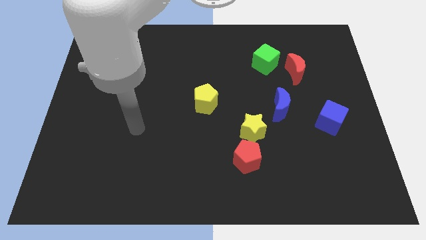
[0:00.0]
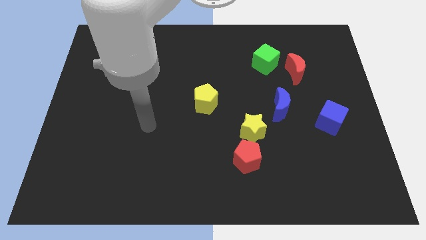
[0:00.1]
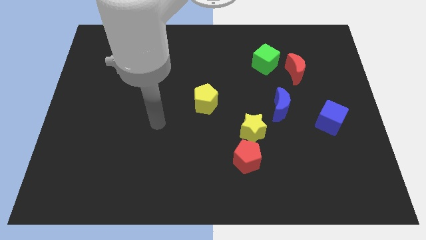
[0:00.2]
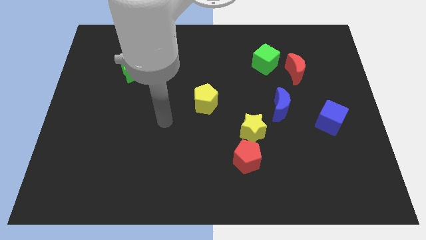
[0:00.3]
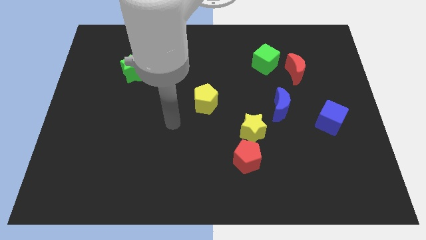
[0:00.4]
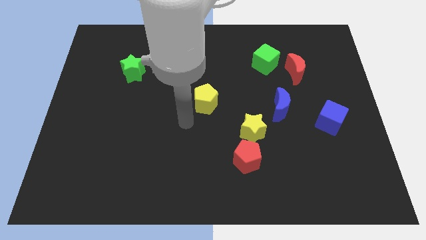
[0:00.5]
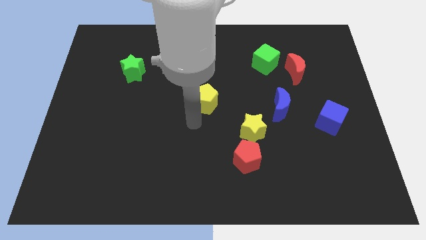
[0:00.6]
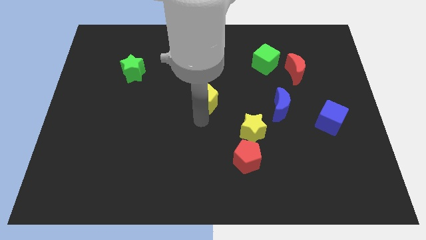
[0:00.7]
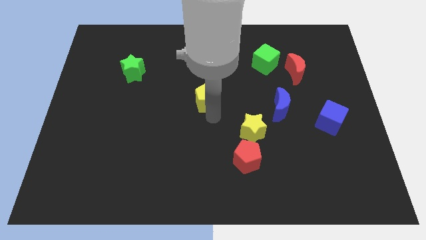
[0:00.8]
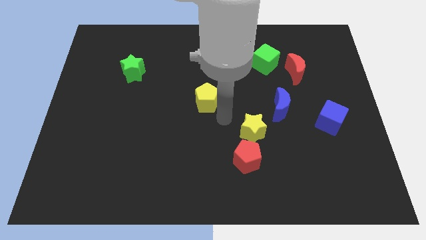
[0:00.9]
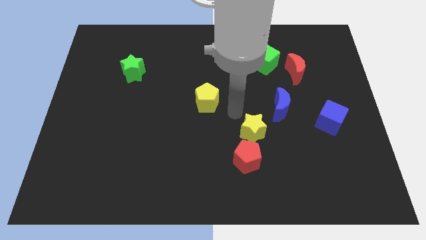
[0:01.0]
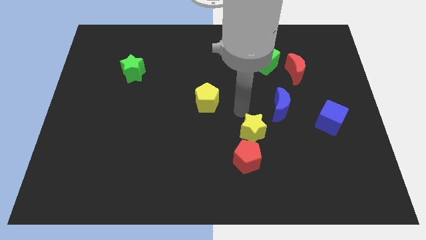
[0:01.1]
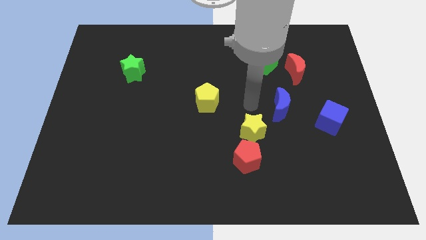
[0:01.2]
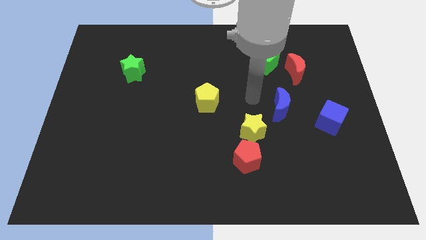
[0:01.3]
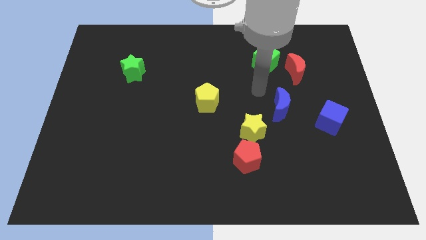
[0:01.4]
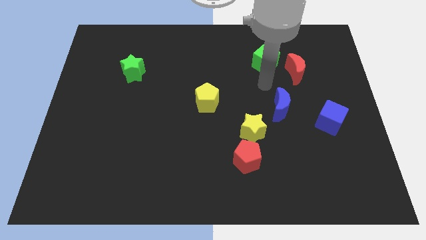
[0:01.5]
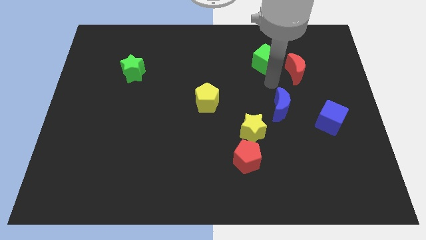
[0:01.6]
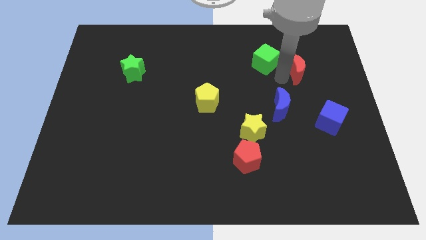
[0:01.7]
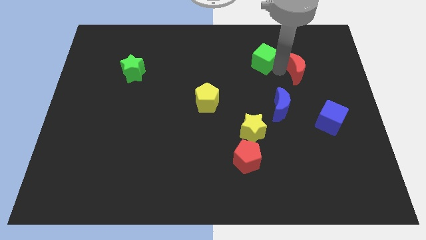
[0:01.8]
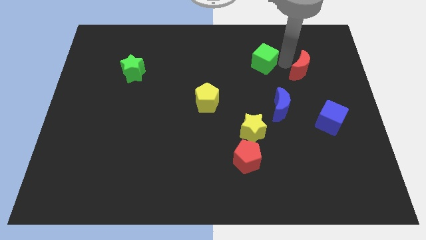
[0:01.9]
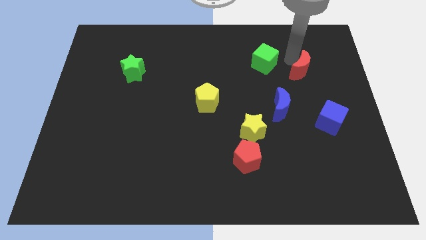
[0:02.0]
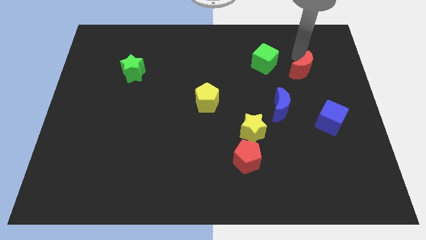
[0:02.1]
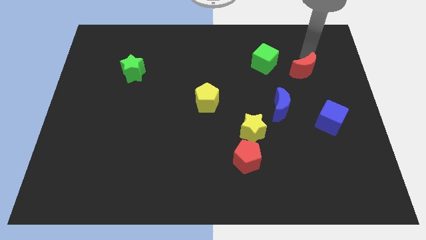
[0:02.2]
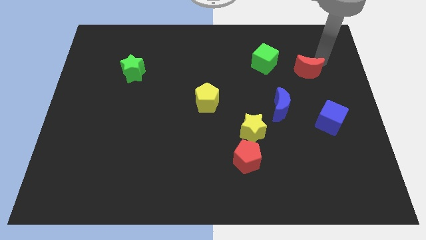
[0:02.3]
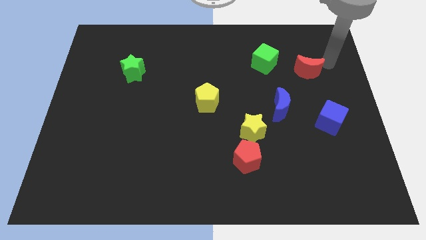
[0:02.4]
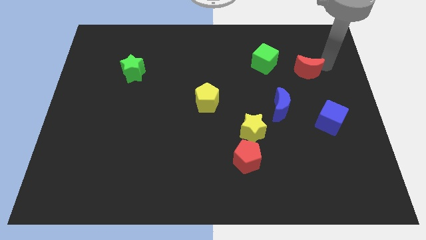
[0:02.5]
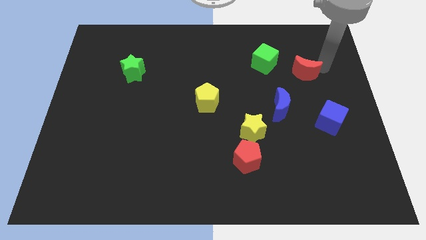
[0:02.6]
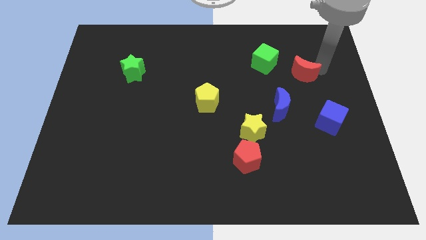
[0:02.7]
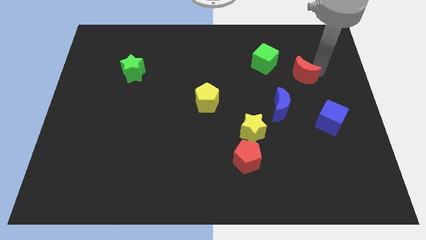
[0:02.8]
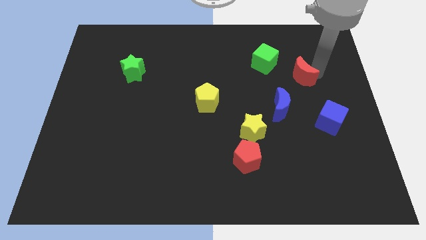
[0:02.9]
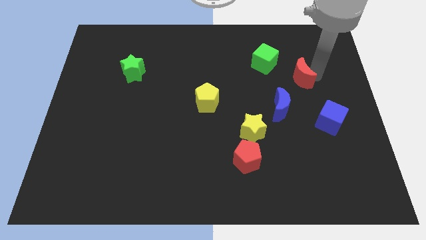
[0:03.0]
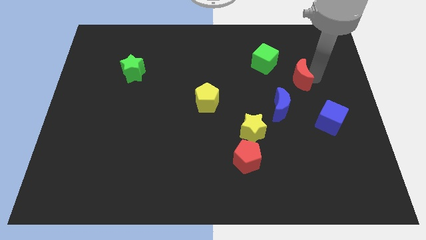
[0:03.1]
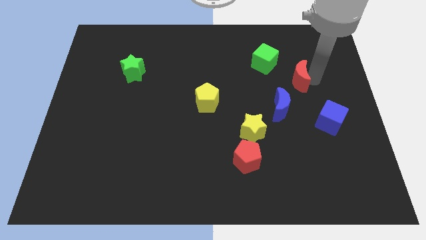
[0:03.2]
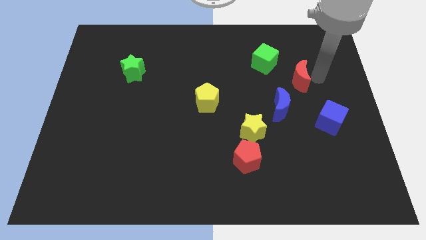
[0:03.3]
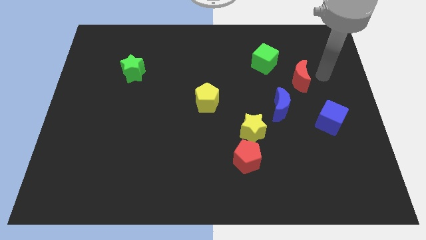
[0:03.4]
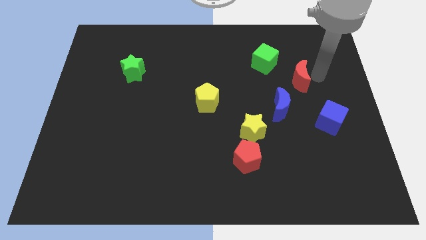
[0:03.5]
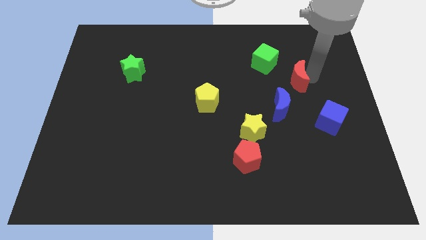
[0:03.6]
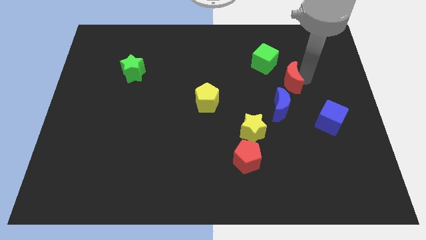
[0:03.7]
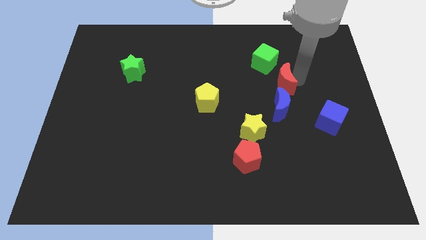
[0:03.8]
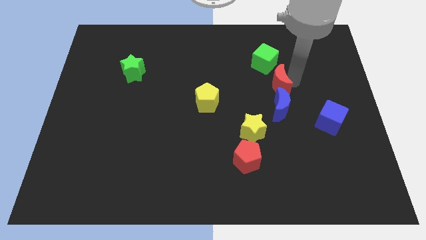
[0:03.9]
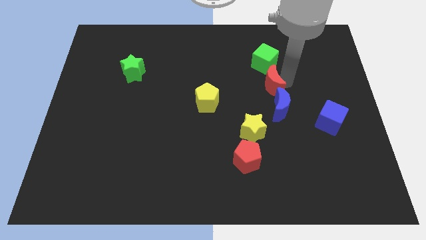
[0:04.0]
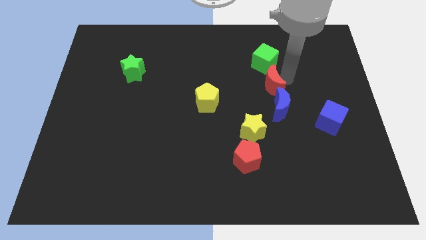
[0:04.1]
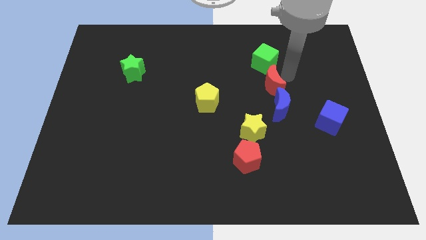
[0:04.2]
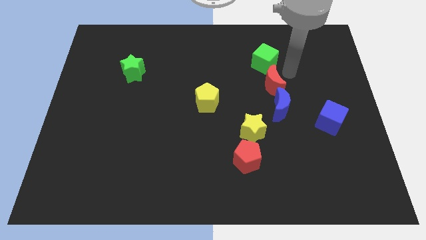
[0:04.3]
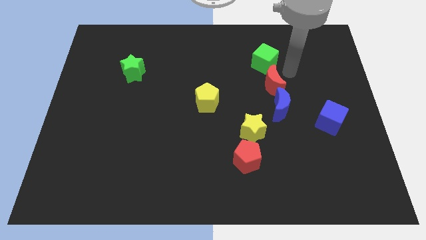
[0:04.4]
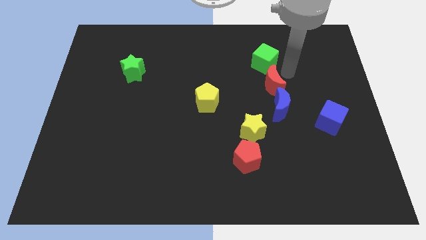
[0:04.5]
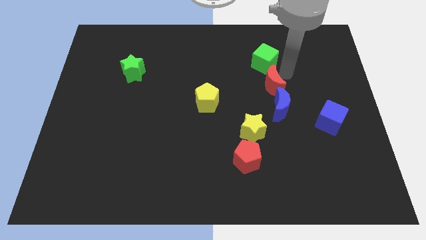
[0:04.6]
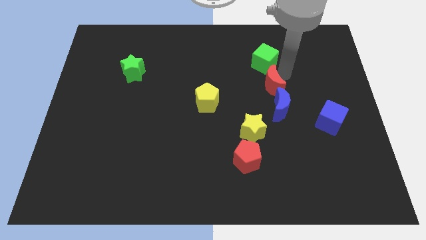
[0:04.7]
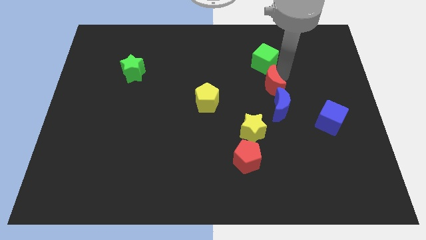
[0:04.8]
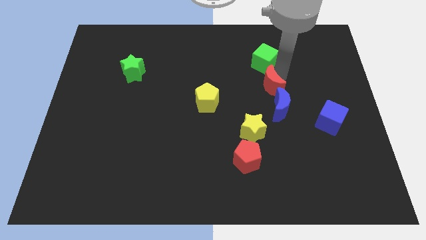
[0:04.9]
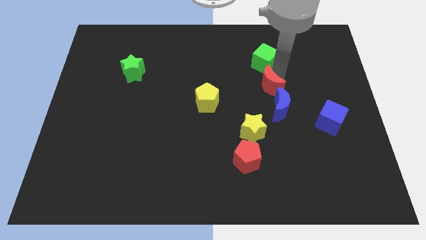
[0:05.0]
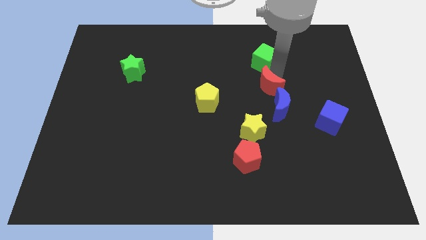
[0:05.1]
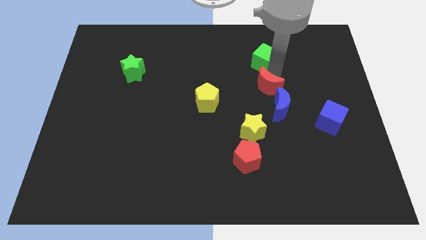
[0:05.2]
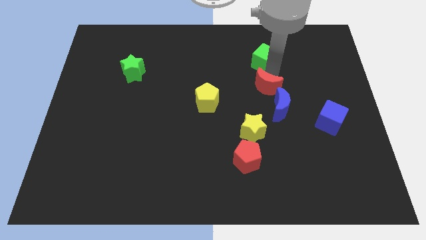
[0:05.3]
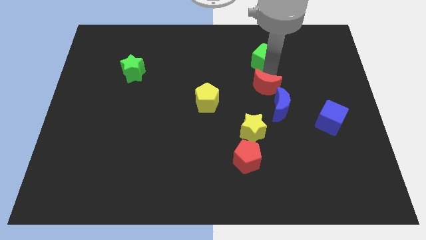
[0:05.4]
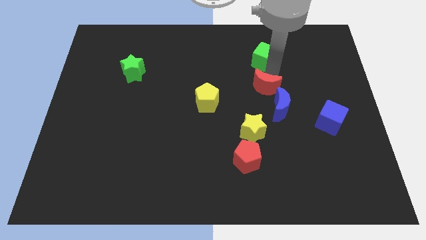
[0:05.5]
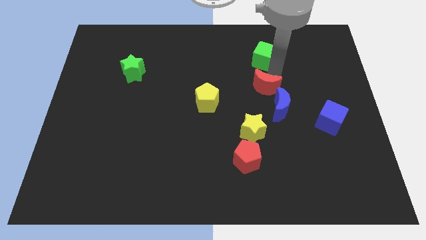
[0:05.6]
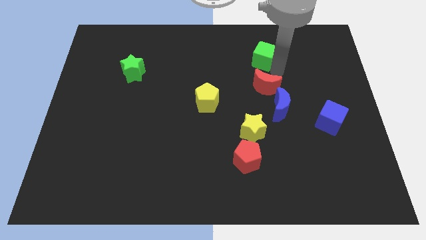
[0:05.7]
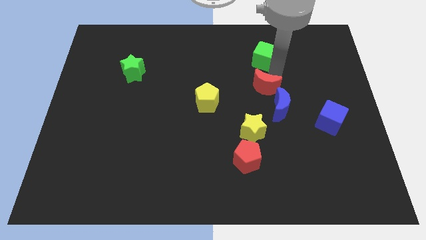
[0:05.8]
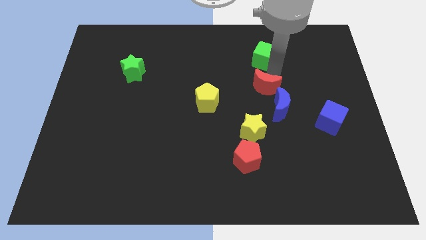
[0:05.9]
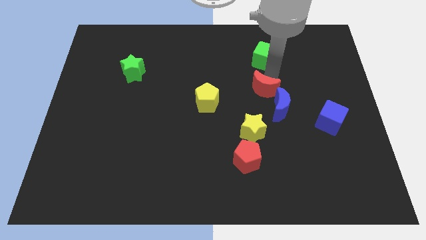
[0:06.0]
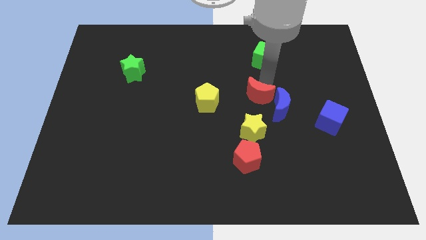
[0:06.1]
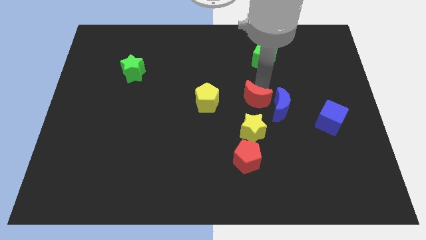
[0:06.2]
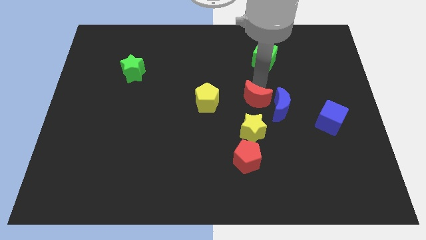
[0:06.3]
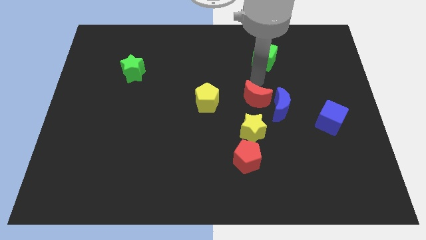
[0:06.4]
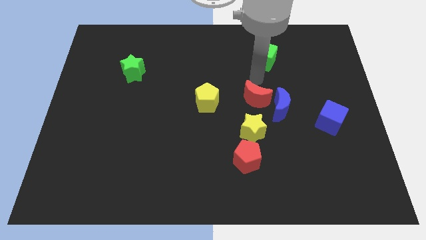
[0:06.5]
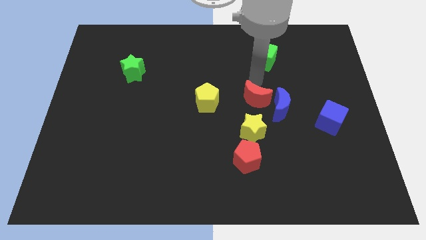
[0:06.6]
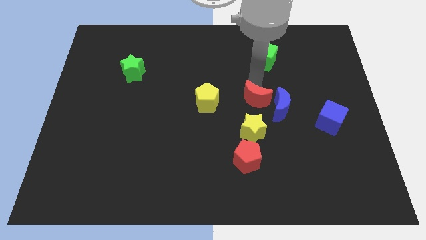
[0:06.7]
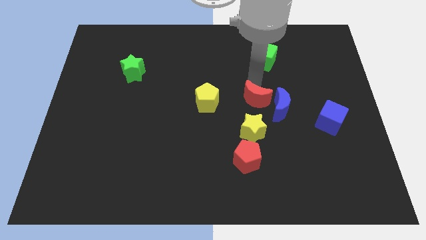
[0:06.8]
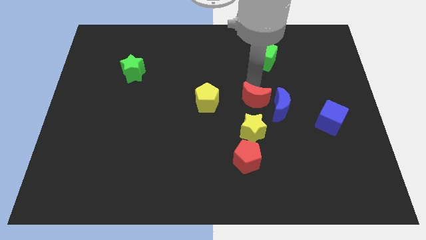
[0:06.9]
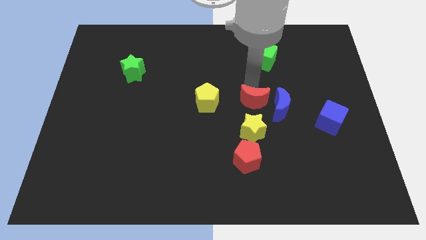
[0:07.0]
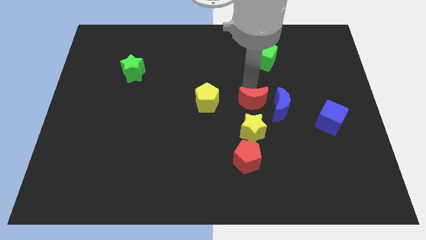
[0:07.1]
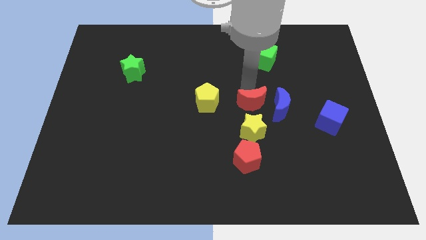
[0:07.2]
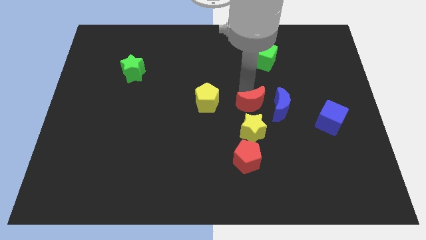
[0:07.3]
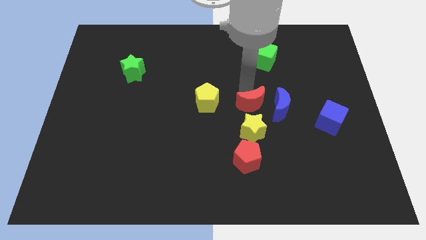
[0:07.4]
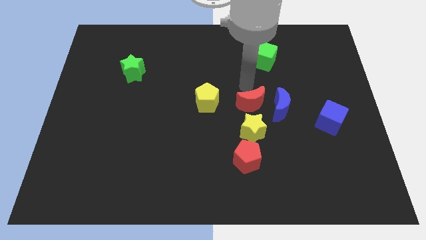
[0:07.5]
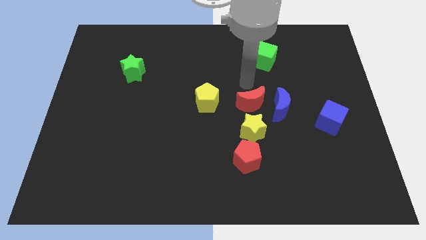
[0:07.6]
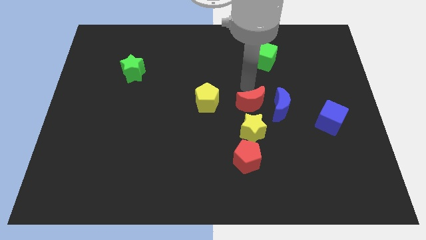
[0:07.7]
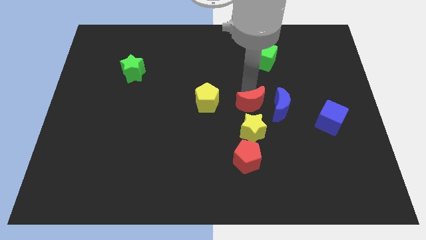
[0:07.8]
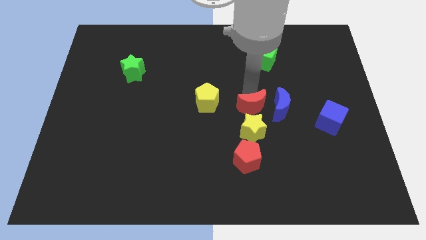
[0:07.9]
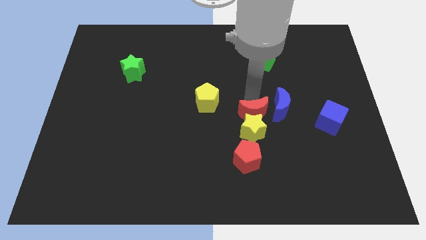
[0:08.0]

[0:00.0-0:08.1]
slide the red moon to the yellow star
